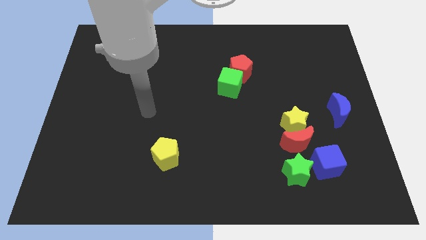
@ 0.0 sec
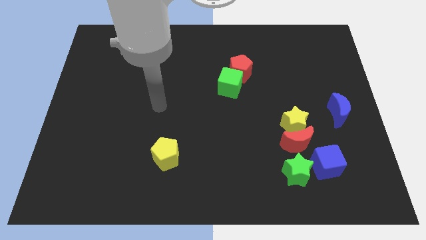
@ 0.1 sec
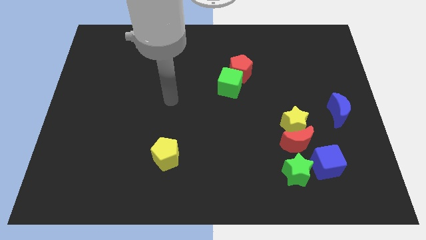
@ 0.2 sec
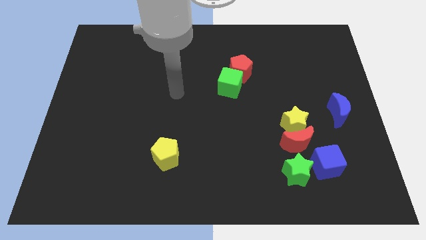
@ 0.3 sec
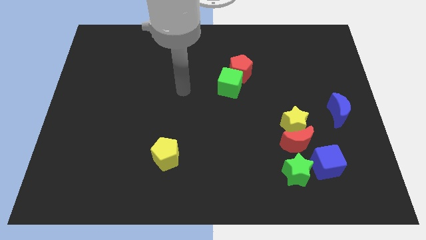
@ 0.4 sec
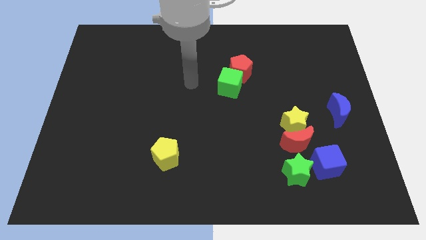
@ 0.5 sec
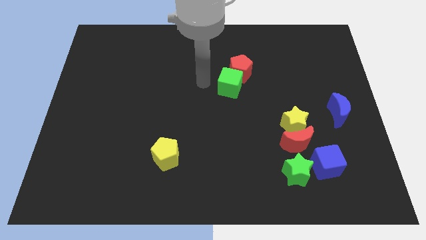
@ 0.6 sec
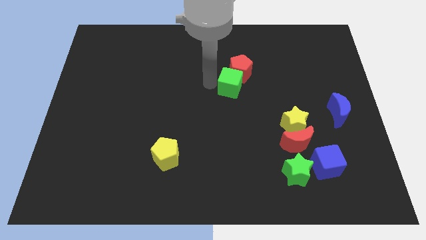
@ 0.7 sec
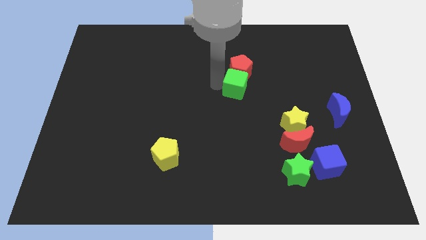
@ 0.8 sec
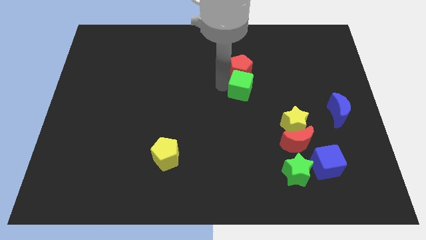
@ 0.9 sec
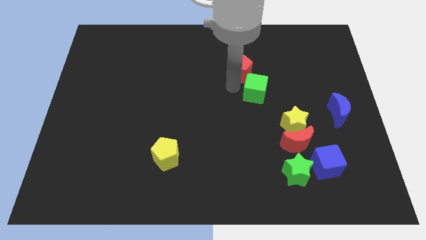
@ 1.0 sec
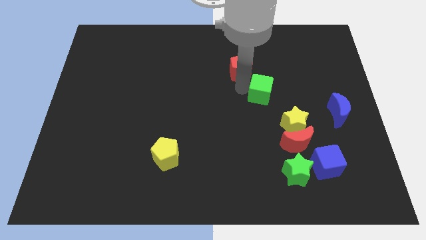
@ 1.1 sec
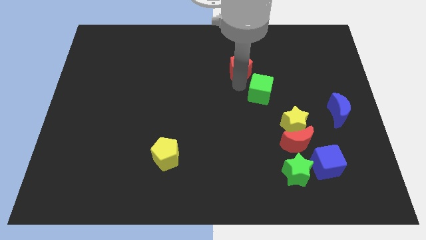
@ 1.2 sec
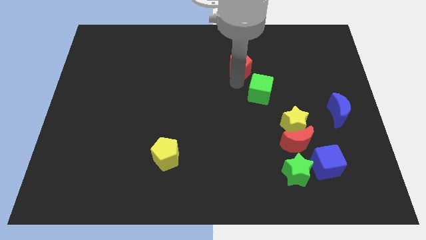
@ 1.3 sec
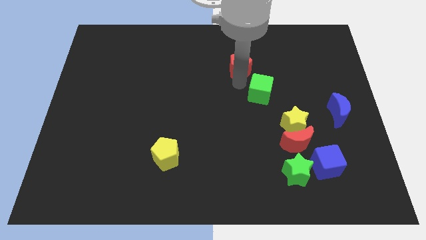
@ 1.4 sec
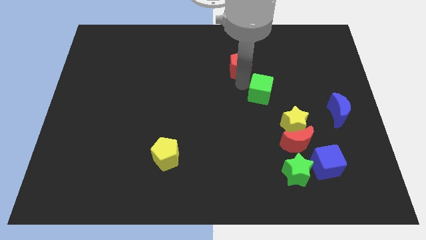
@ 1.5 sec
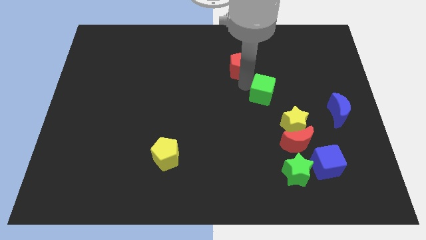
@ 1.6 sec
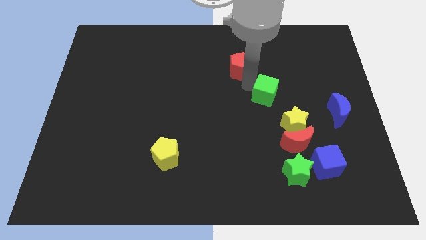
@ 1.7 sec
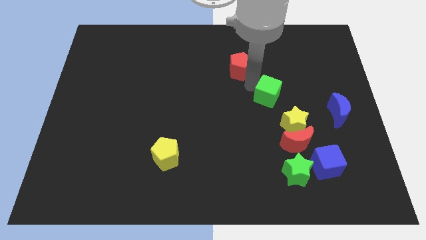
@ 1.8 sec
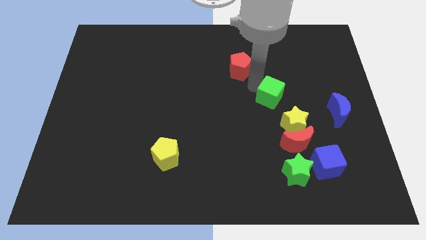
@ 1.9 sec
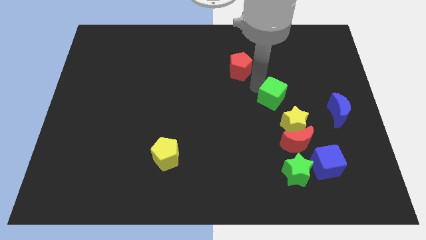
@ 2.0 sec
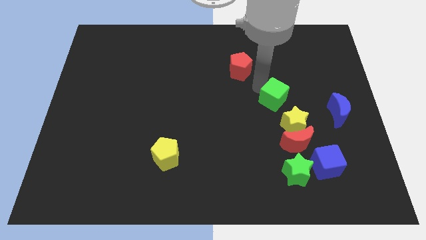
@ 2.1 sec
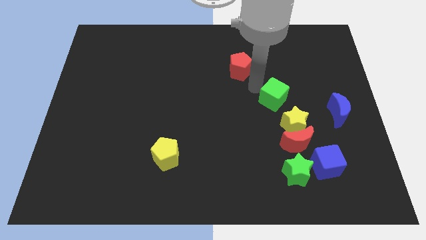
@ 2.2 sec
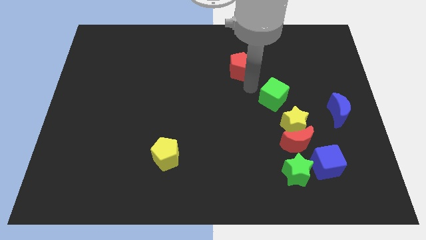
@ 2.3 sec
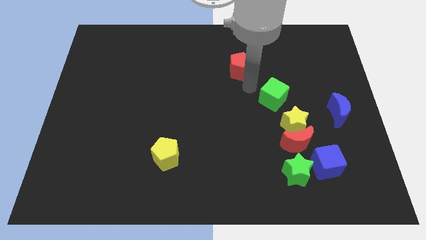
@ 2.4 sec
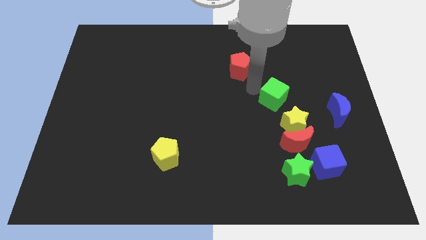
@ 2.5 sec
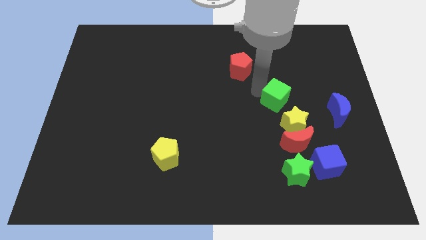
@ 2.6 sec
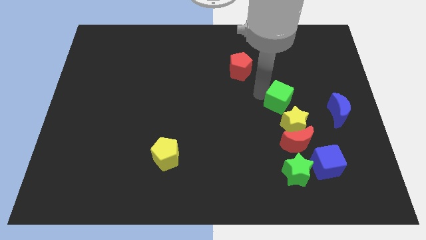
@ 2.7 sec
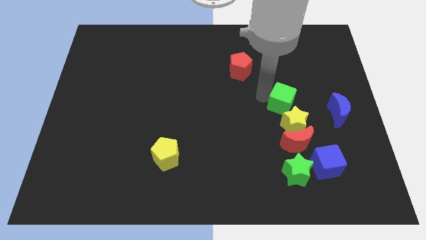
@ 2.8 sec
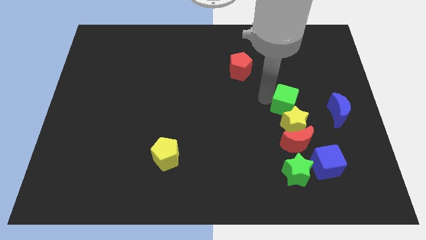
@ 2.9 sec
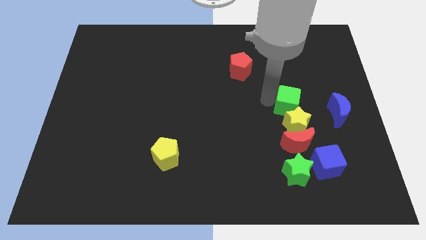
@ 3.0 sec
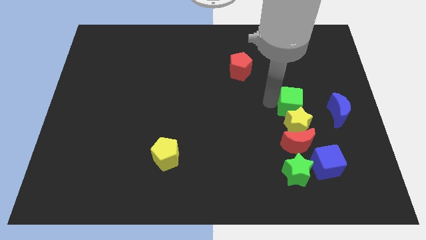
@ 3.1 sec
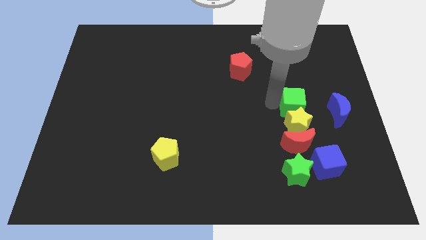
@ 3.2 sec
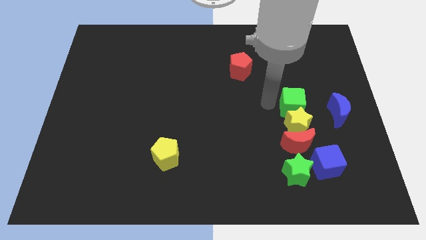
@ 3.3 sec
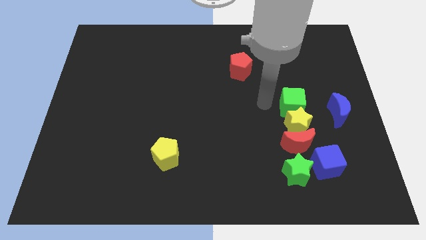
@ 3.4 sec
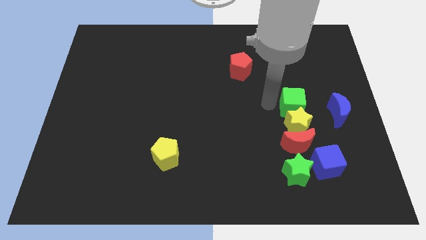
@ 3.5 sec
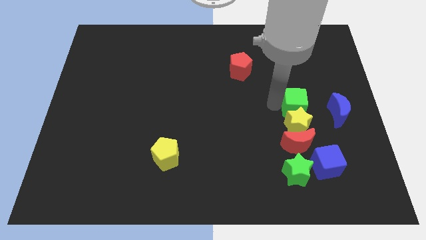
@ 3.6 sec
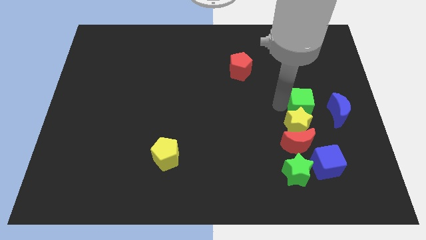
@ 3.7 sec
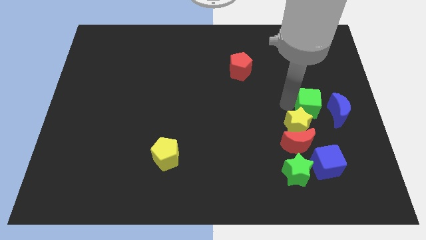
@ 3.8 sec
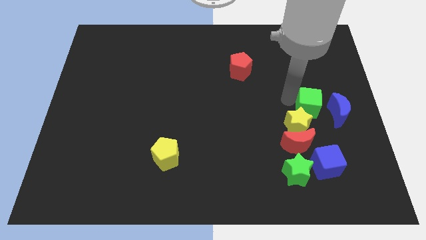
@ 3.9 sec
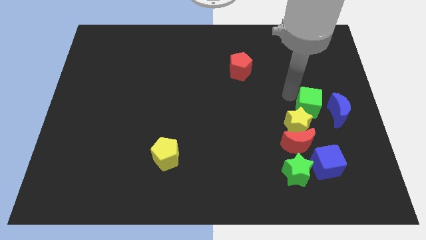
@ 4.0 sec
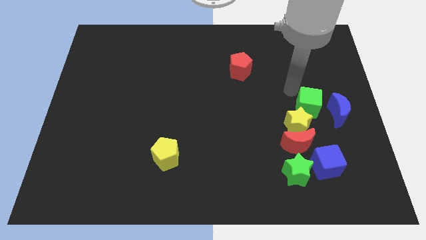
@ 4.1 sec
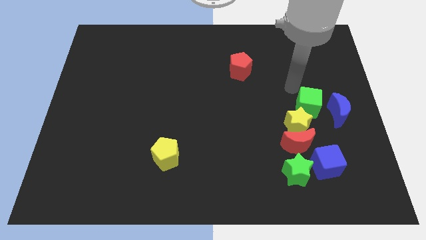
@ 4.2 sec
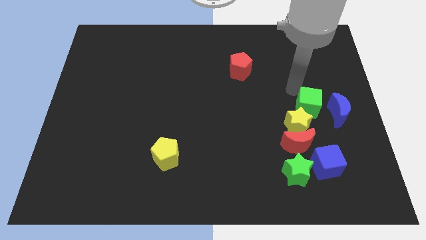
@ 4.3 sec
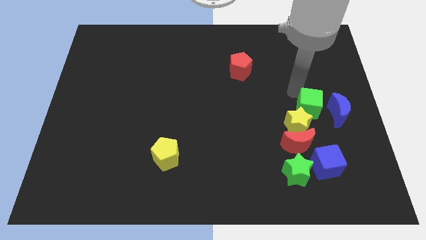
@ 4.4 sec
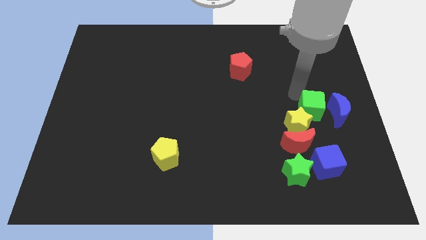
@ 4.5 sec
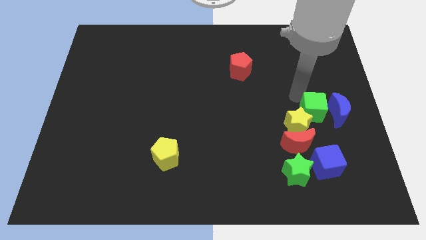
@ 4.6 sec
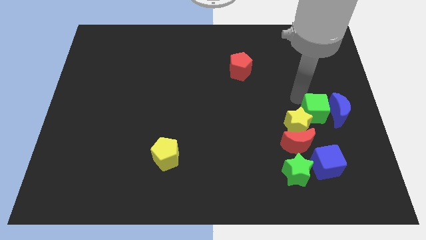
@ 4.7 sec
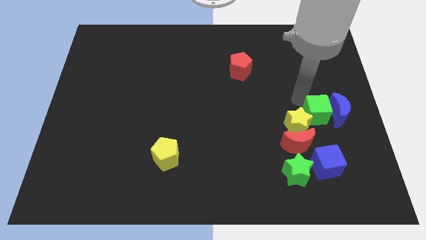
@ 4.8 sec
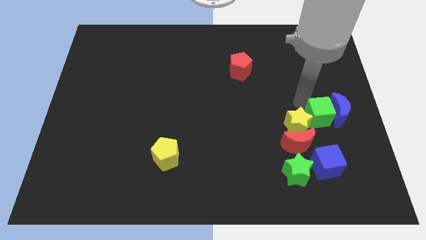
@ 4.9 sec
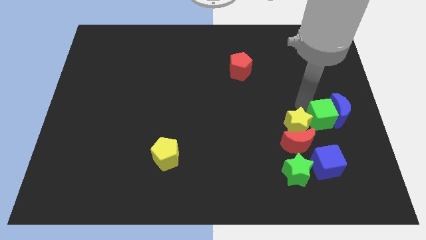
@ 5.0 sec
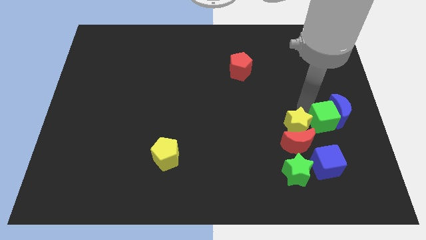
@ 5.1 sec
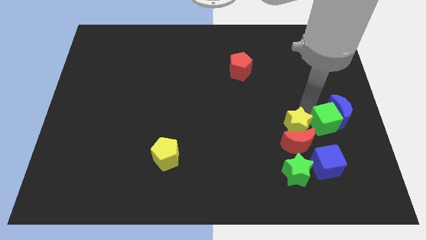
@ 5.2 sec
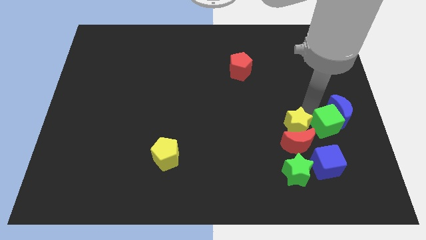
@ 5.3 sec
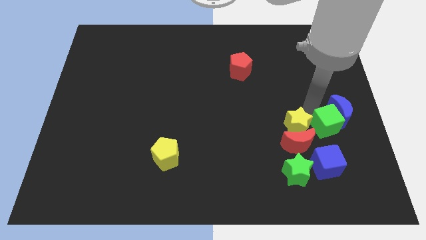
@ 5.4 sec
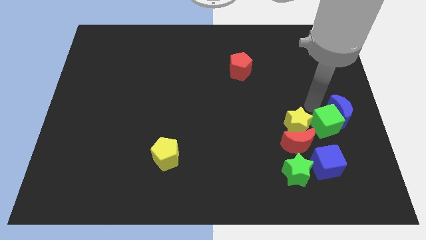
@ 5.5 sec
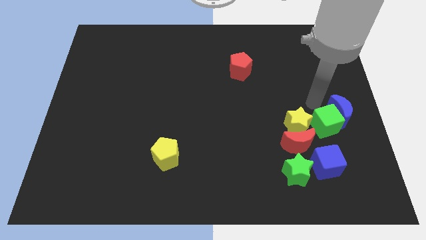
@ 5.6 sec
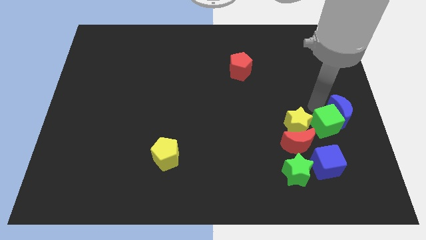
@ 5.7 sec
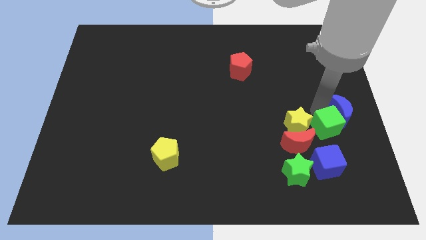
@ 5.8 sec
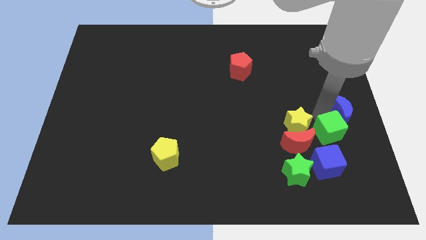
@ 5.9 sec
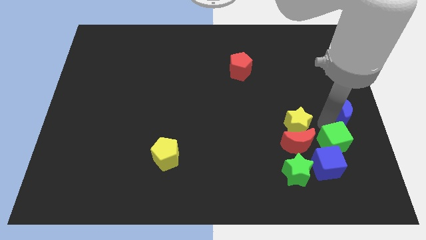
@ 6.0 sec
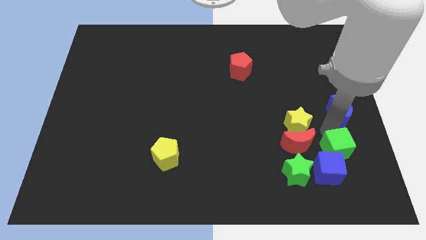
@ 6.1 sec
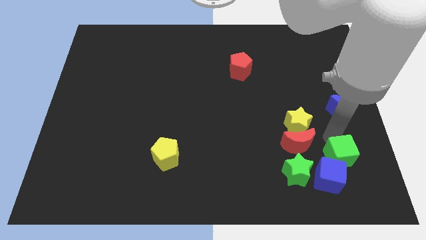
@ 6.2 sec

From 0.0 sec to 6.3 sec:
push the green cube right of the green star

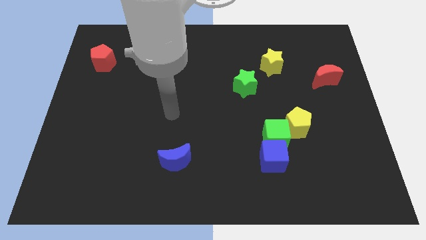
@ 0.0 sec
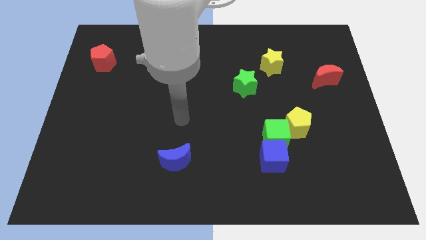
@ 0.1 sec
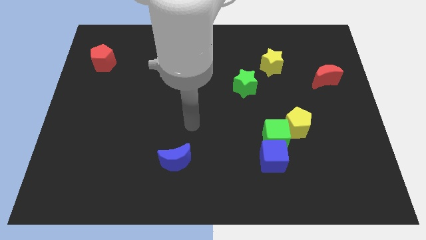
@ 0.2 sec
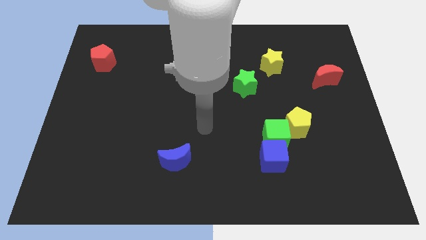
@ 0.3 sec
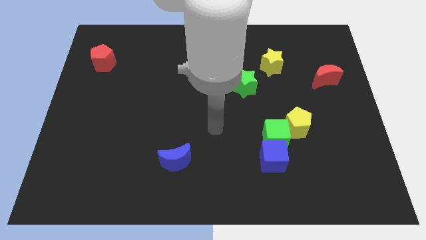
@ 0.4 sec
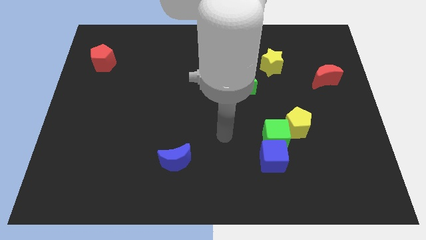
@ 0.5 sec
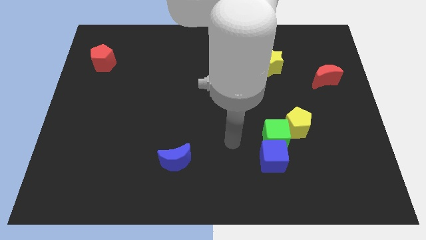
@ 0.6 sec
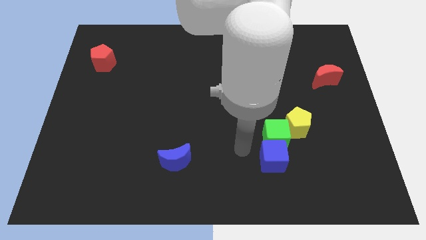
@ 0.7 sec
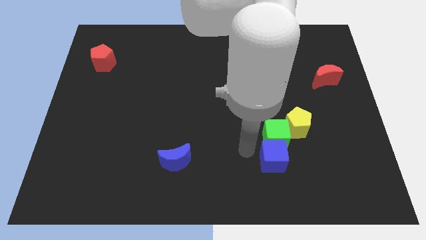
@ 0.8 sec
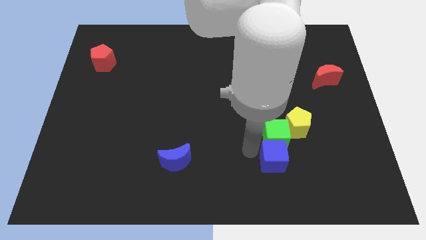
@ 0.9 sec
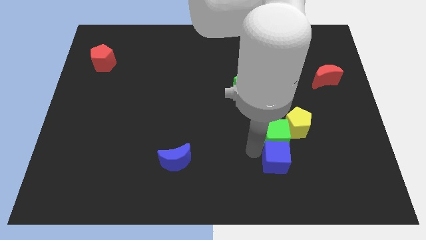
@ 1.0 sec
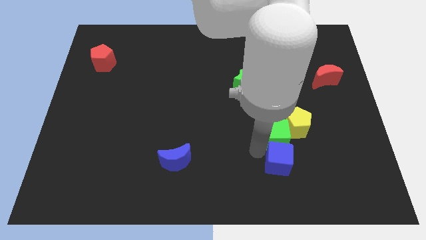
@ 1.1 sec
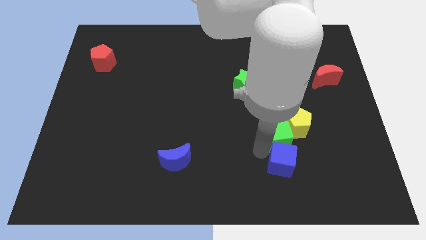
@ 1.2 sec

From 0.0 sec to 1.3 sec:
move the blue cube below the yellow pentagon

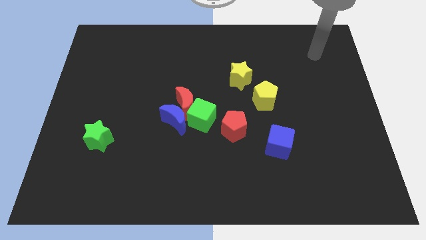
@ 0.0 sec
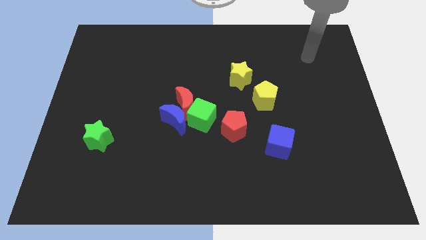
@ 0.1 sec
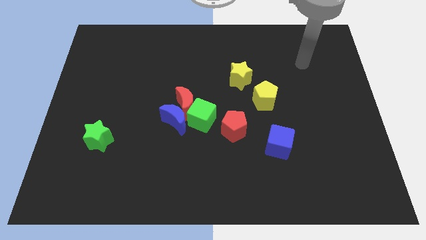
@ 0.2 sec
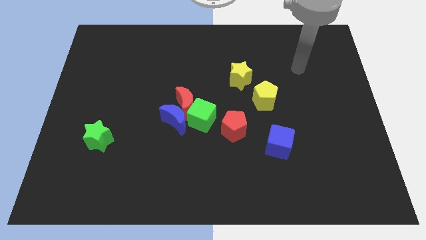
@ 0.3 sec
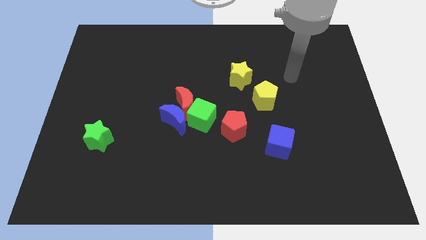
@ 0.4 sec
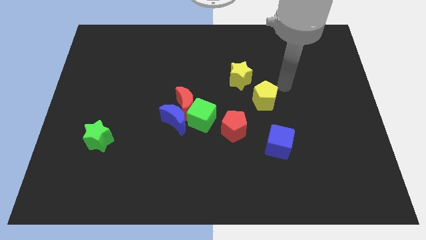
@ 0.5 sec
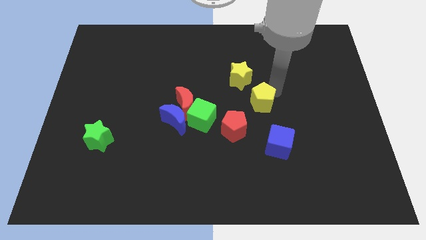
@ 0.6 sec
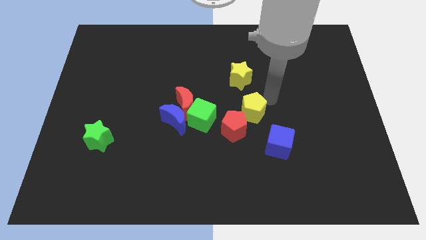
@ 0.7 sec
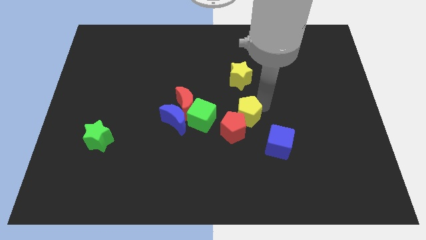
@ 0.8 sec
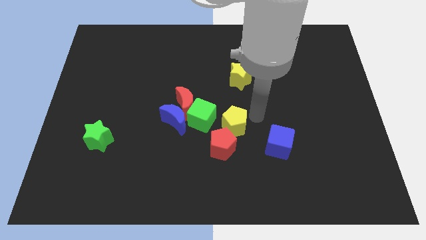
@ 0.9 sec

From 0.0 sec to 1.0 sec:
move the red pentagon to the bottom of the green cube
